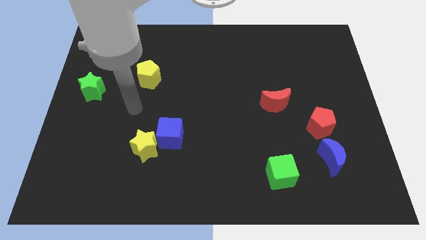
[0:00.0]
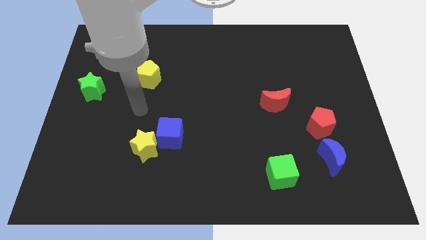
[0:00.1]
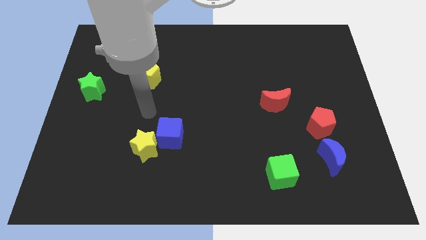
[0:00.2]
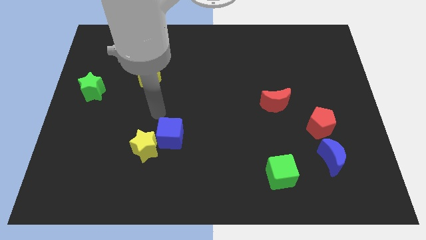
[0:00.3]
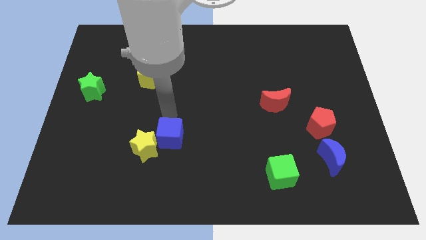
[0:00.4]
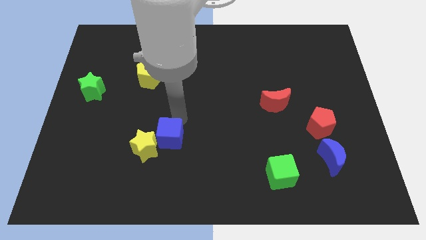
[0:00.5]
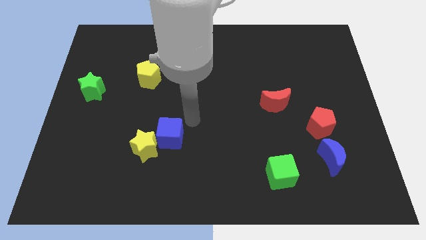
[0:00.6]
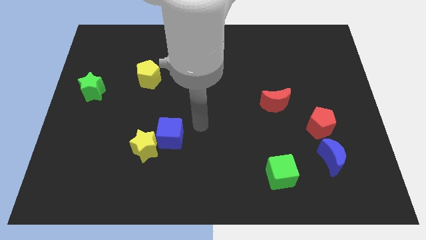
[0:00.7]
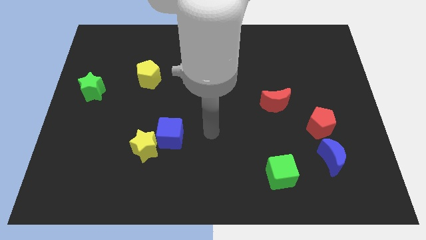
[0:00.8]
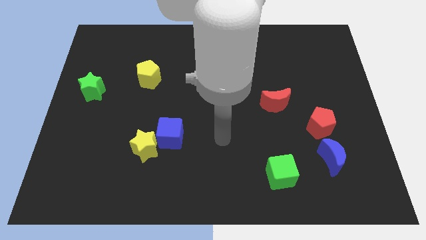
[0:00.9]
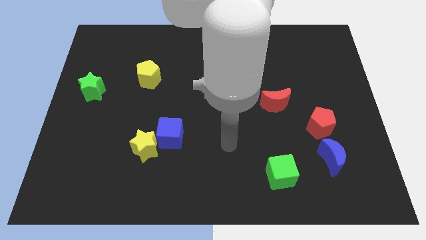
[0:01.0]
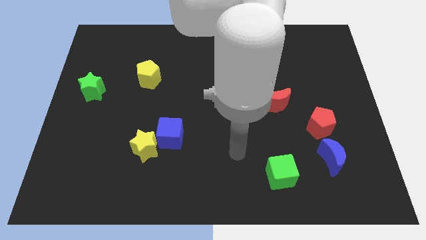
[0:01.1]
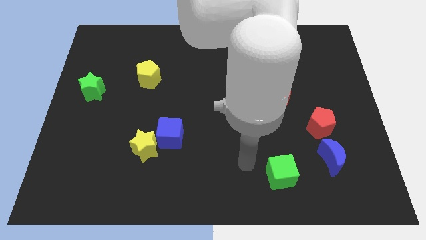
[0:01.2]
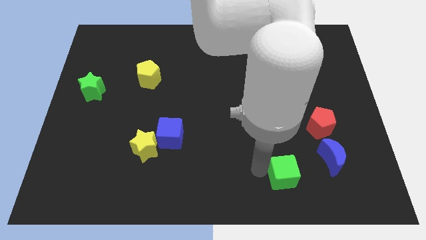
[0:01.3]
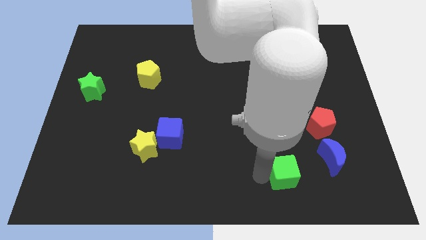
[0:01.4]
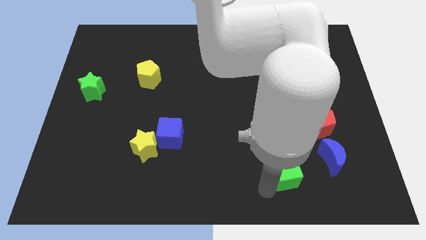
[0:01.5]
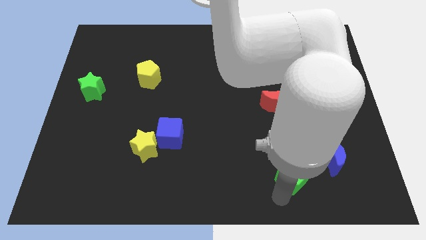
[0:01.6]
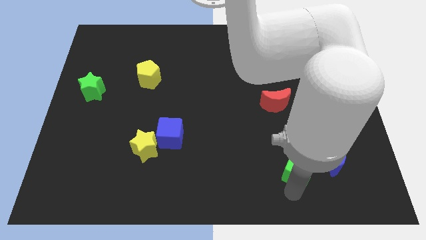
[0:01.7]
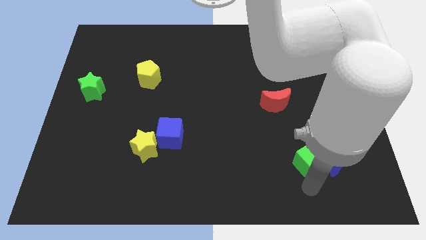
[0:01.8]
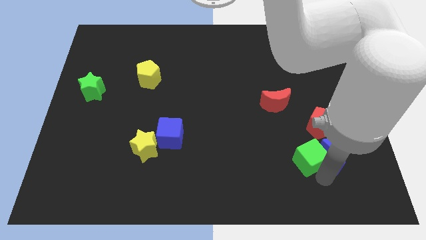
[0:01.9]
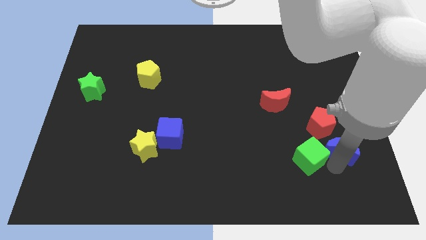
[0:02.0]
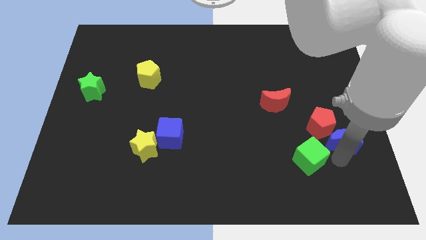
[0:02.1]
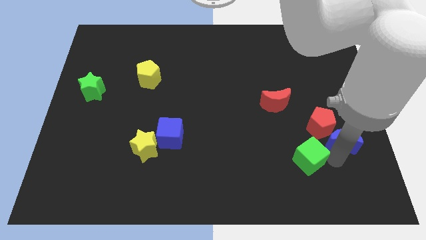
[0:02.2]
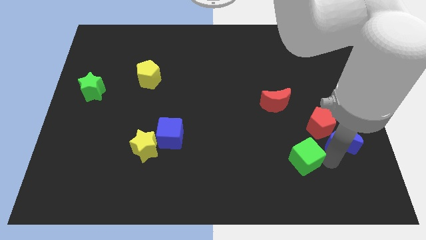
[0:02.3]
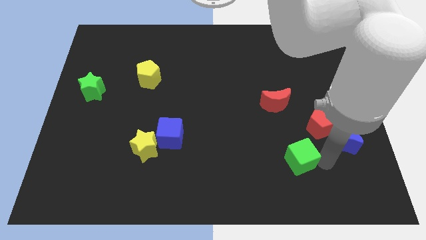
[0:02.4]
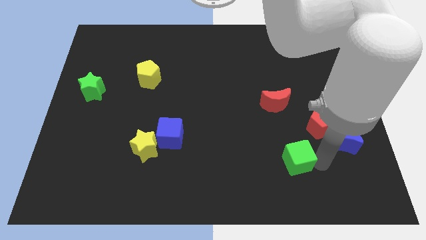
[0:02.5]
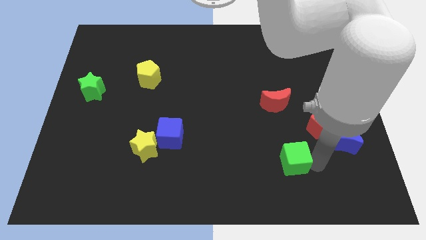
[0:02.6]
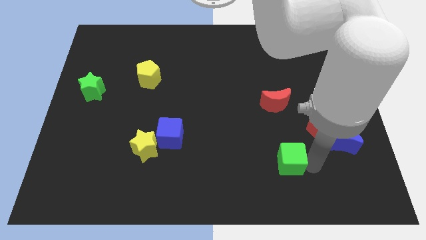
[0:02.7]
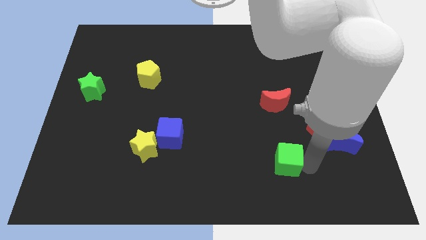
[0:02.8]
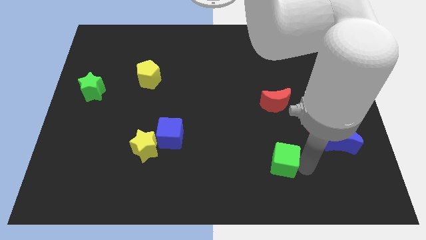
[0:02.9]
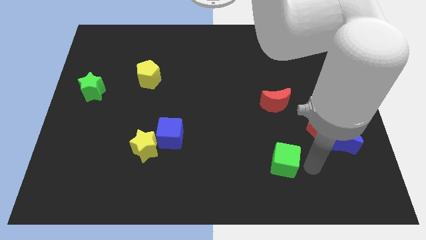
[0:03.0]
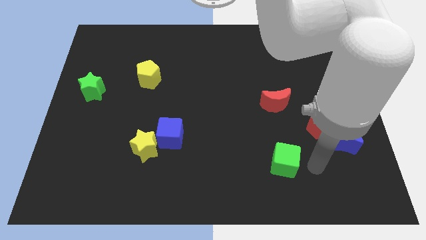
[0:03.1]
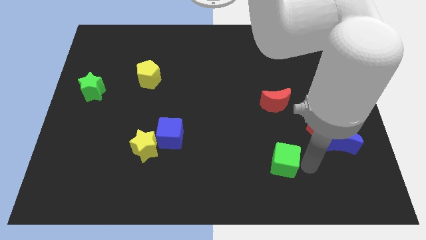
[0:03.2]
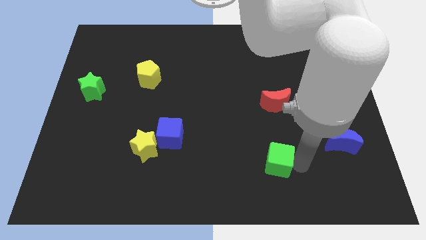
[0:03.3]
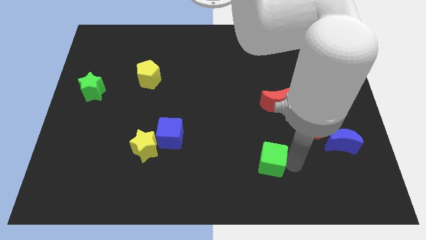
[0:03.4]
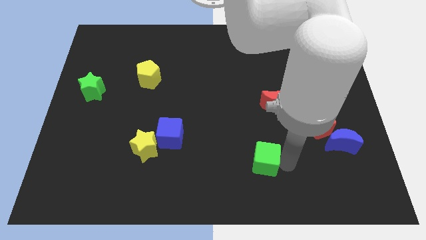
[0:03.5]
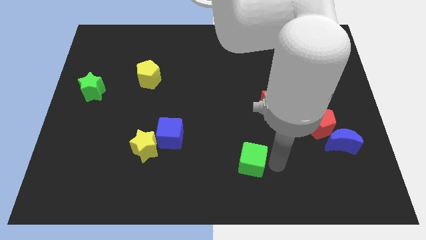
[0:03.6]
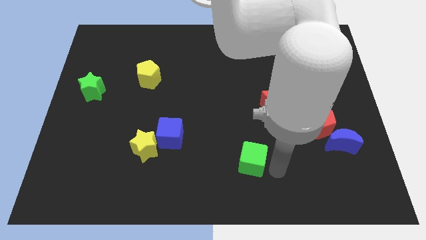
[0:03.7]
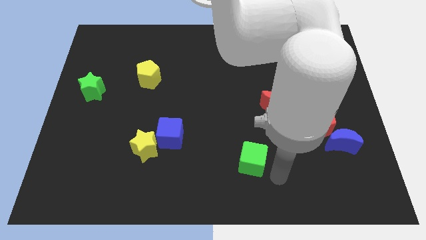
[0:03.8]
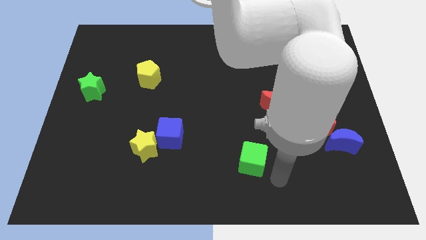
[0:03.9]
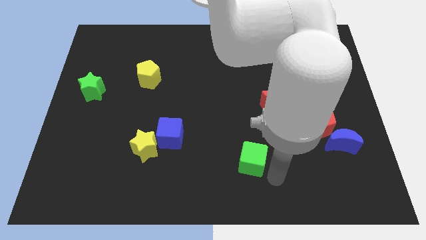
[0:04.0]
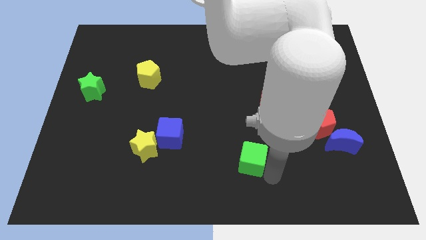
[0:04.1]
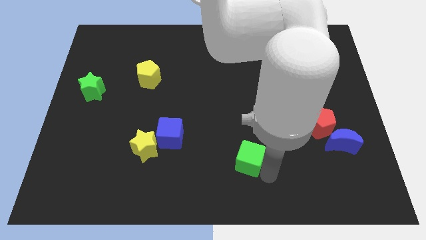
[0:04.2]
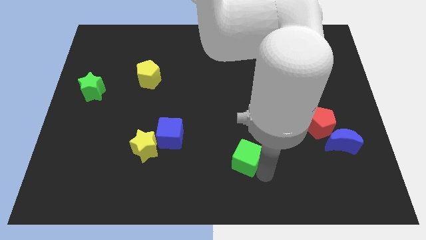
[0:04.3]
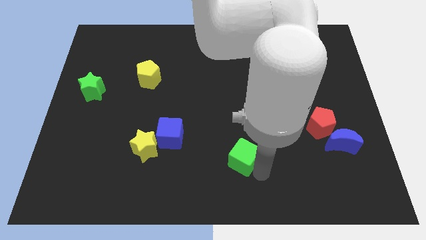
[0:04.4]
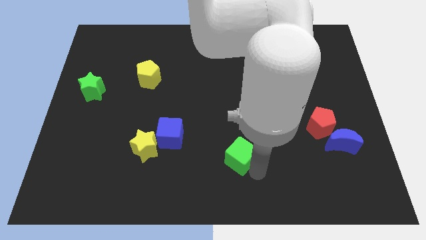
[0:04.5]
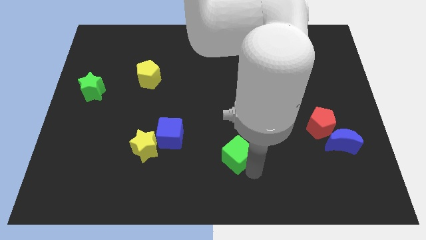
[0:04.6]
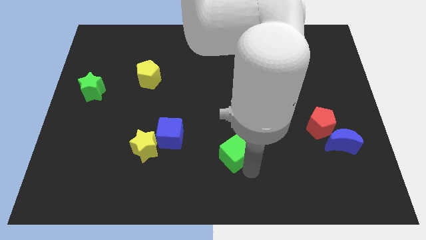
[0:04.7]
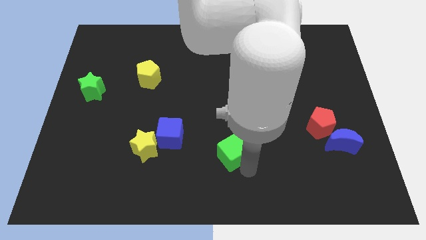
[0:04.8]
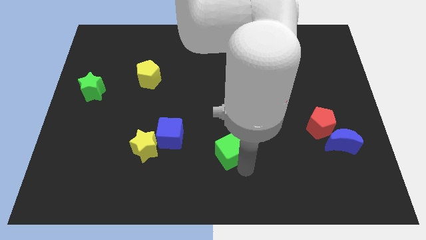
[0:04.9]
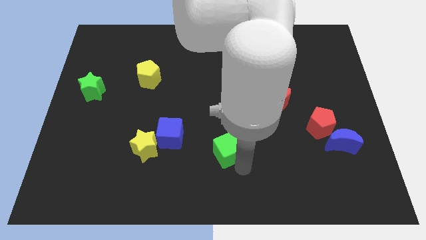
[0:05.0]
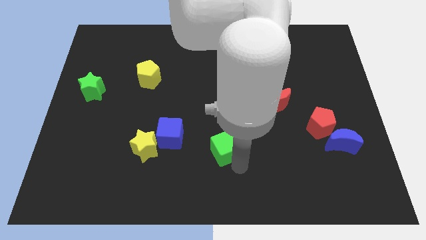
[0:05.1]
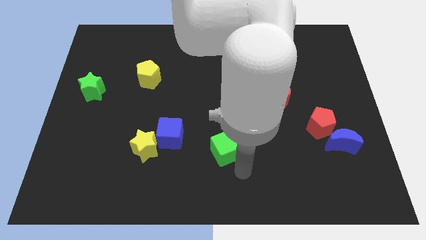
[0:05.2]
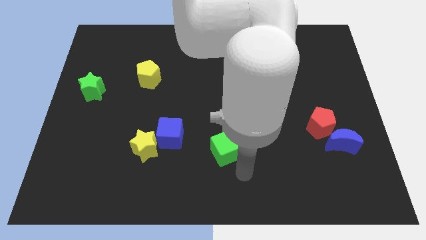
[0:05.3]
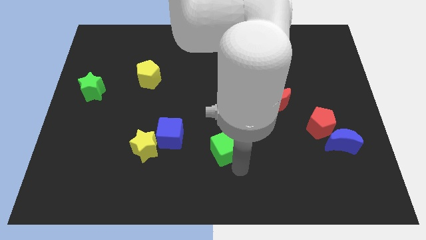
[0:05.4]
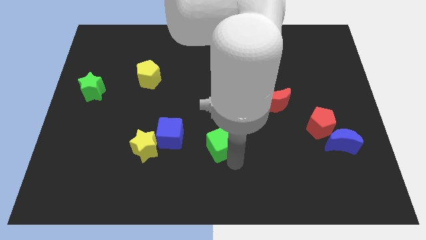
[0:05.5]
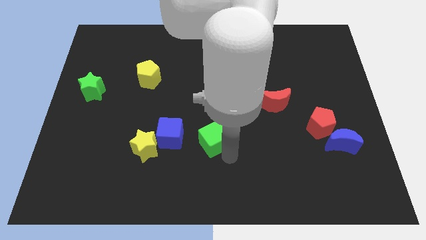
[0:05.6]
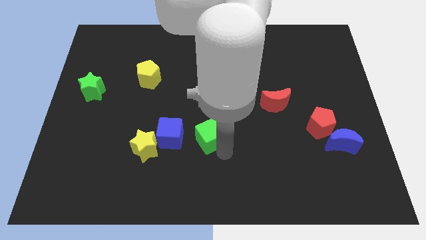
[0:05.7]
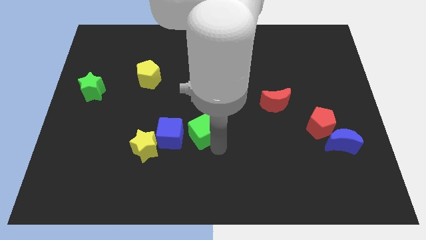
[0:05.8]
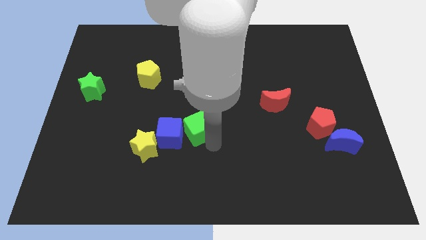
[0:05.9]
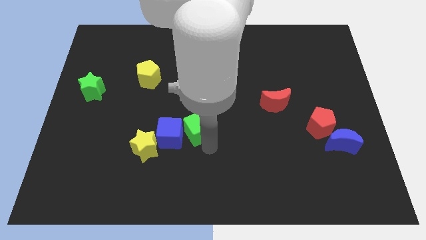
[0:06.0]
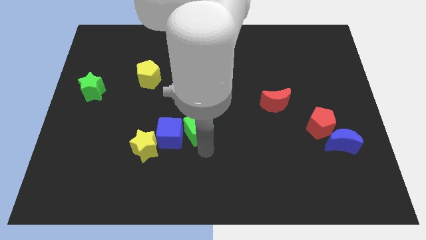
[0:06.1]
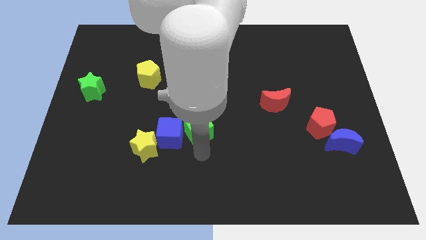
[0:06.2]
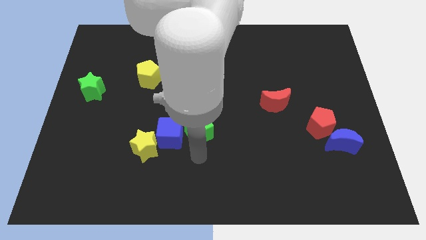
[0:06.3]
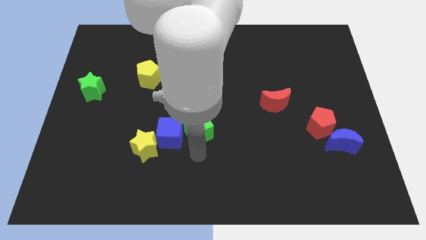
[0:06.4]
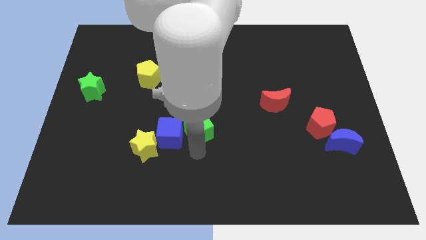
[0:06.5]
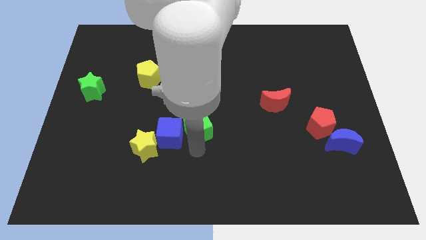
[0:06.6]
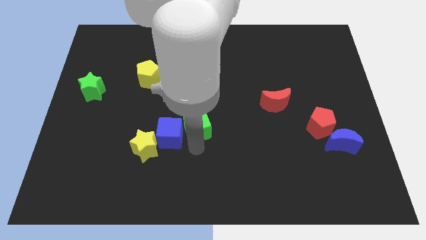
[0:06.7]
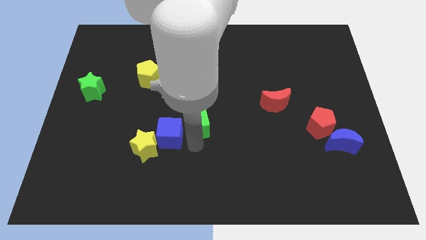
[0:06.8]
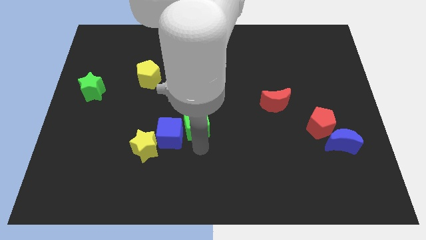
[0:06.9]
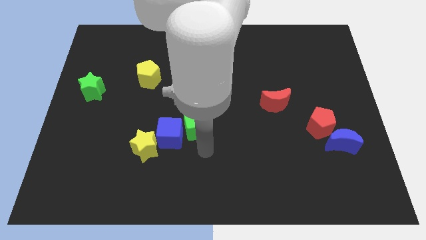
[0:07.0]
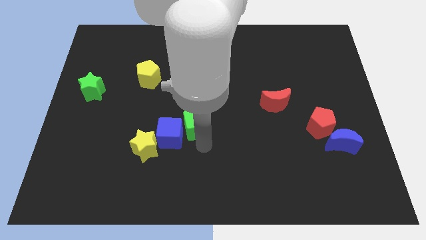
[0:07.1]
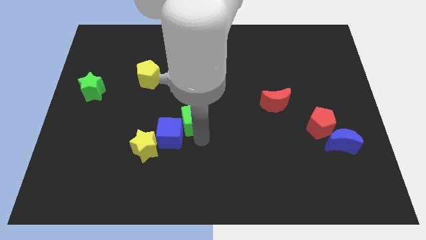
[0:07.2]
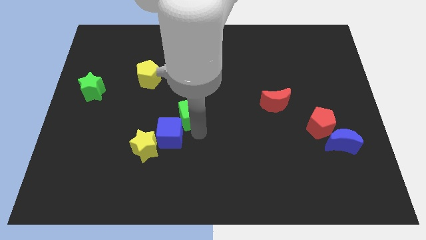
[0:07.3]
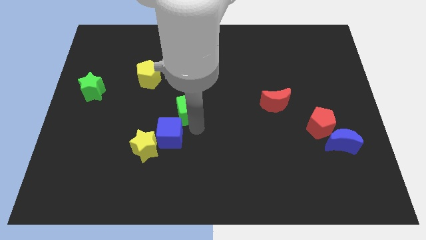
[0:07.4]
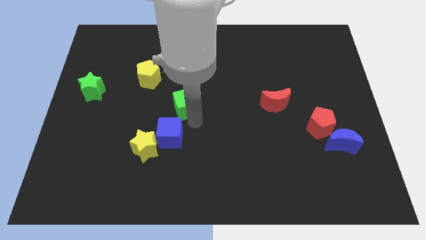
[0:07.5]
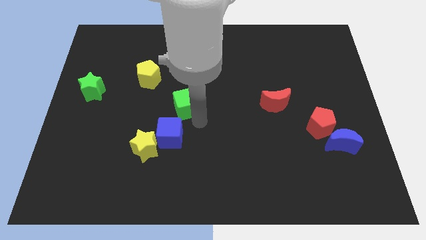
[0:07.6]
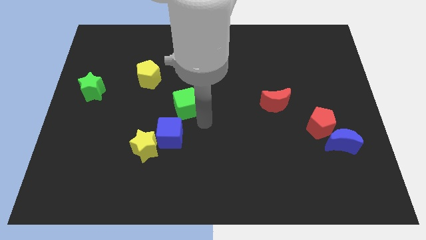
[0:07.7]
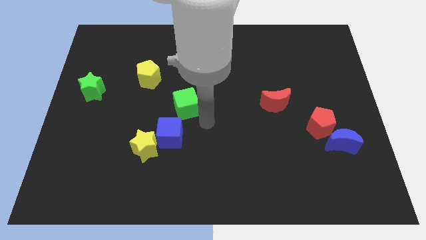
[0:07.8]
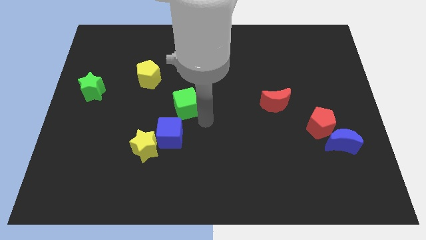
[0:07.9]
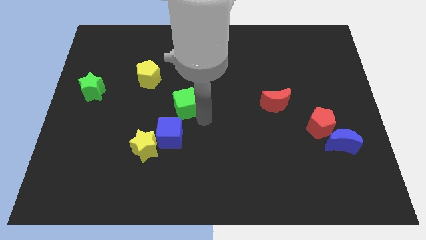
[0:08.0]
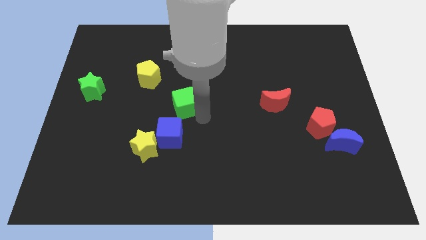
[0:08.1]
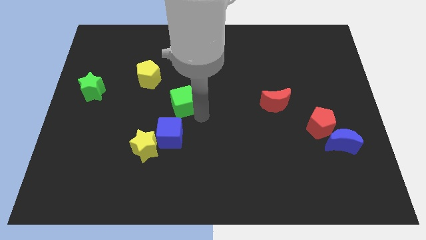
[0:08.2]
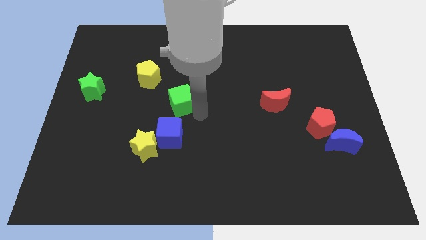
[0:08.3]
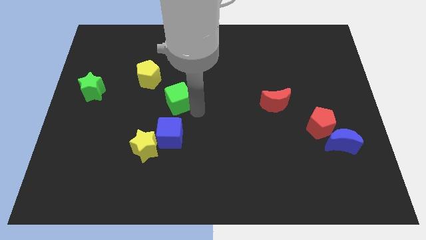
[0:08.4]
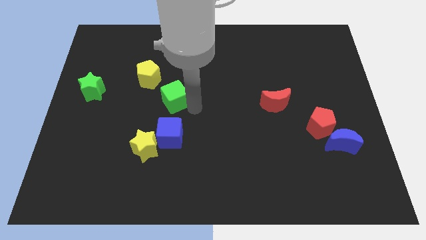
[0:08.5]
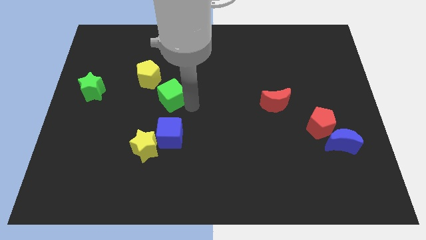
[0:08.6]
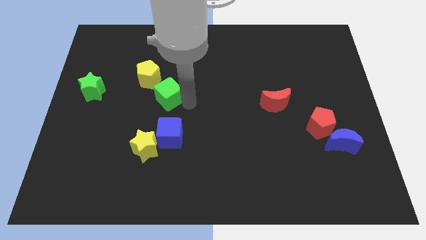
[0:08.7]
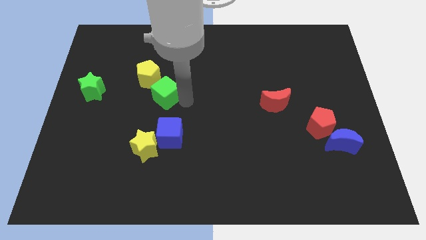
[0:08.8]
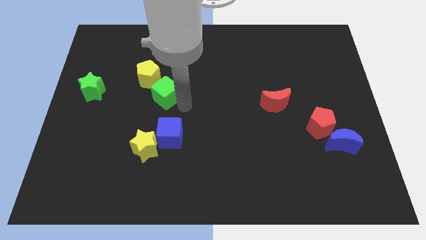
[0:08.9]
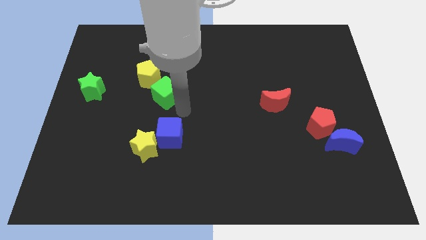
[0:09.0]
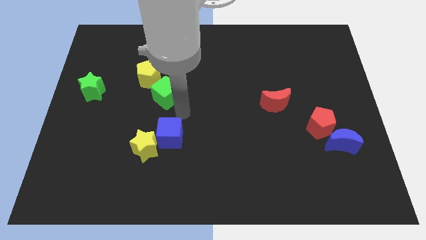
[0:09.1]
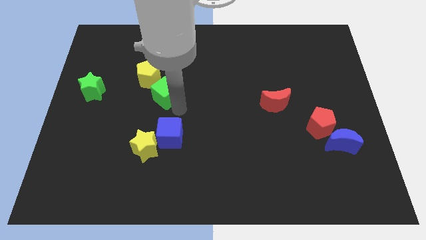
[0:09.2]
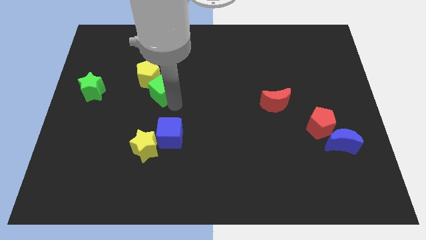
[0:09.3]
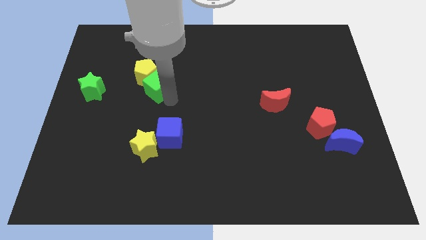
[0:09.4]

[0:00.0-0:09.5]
push the green cube close to the yellow pentagon
